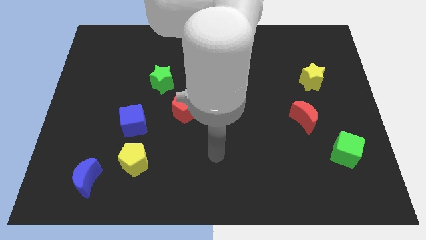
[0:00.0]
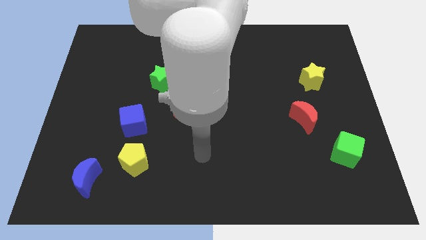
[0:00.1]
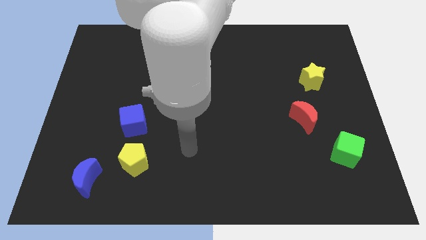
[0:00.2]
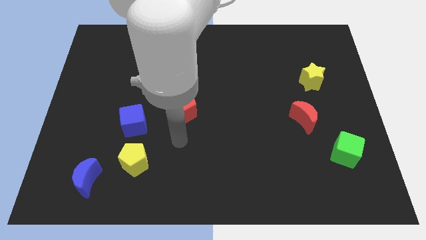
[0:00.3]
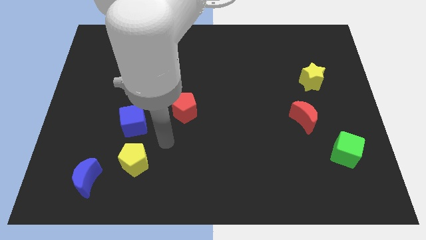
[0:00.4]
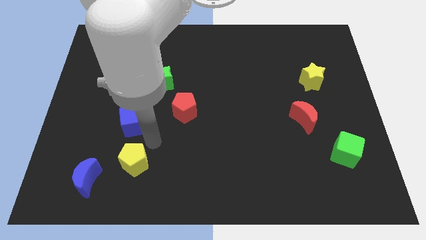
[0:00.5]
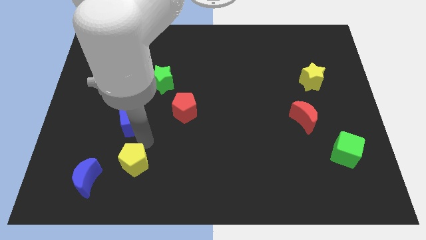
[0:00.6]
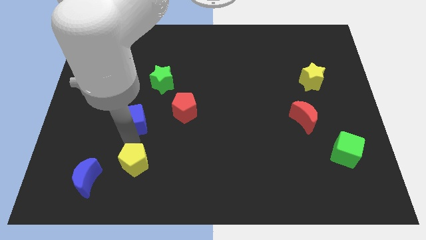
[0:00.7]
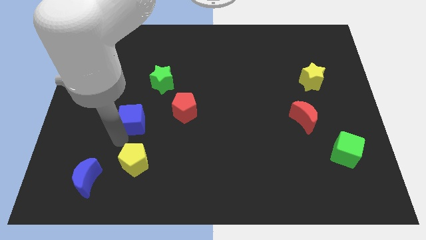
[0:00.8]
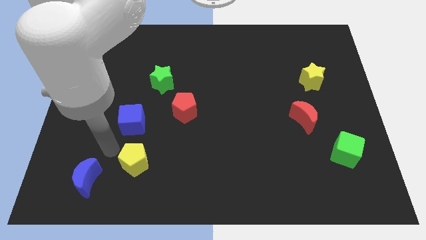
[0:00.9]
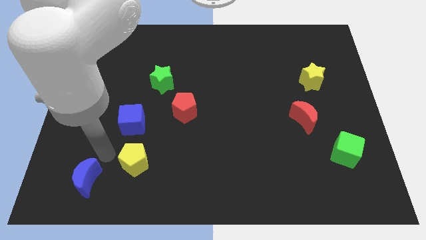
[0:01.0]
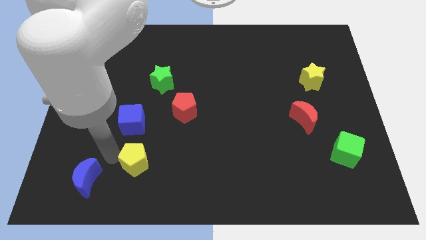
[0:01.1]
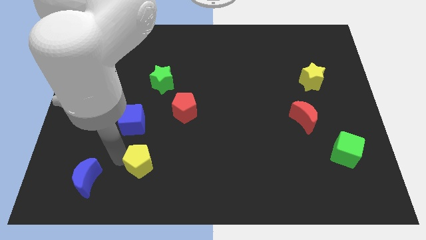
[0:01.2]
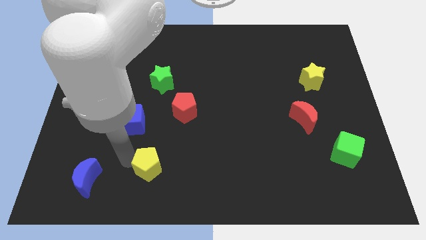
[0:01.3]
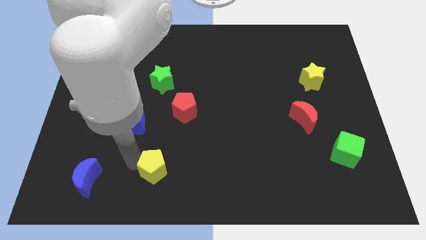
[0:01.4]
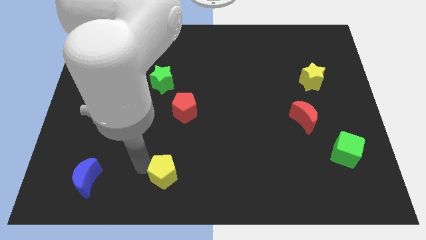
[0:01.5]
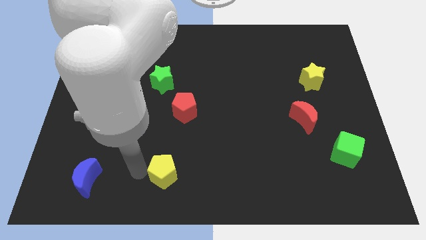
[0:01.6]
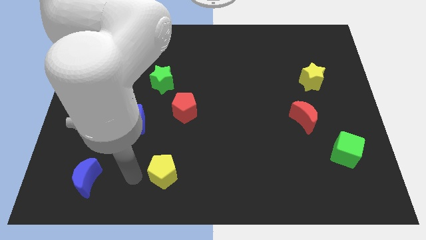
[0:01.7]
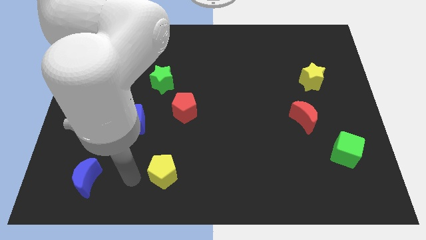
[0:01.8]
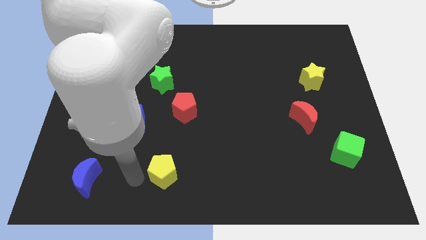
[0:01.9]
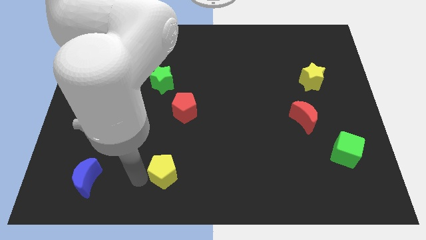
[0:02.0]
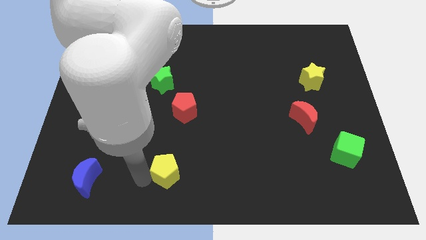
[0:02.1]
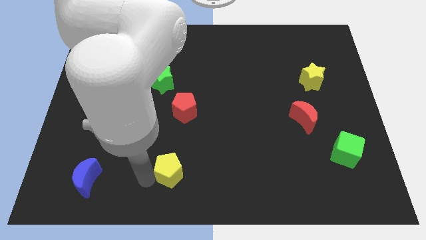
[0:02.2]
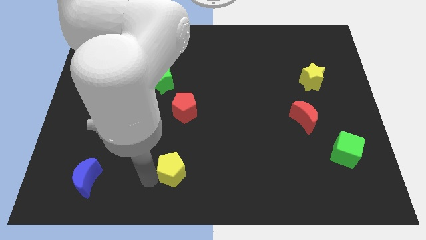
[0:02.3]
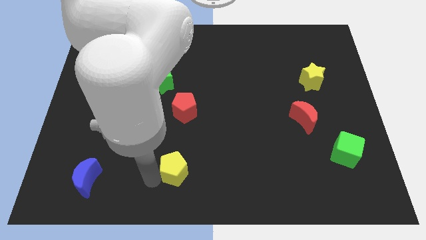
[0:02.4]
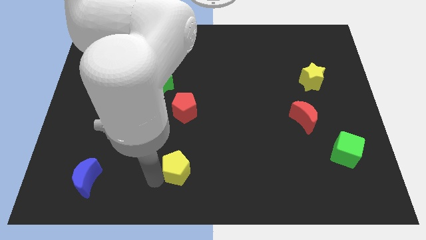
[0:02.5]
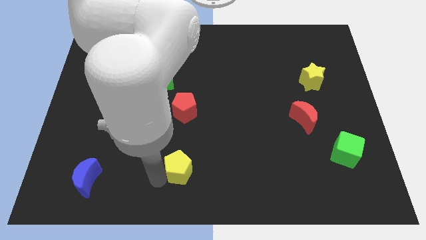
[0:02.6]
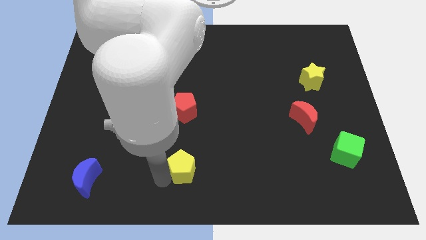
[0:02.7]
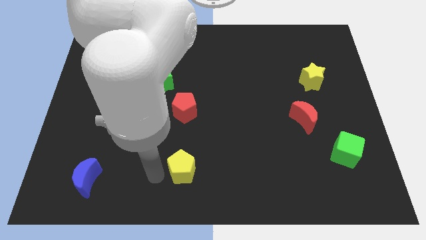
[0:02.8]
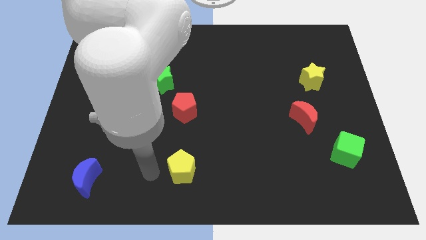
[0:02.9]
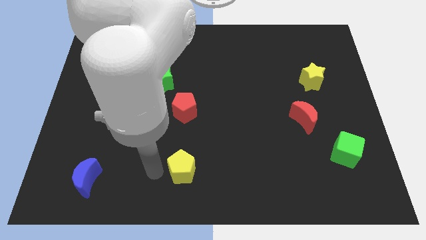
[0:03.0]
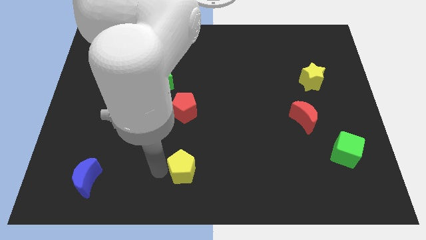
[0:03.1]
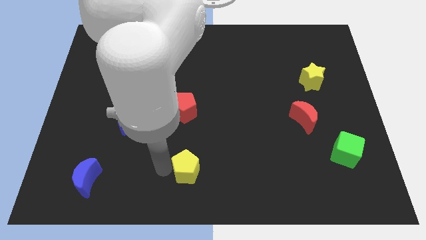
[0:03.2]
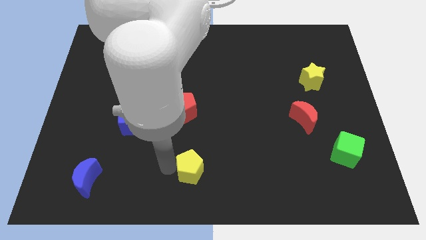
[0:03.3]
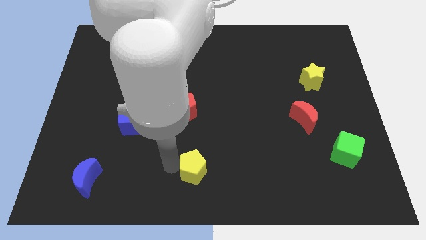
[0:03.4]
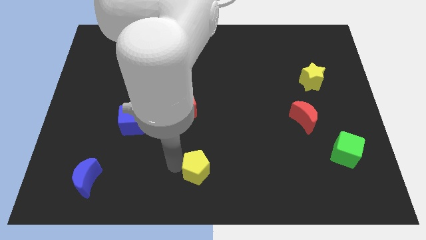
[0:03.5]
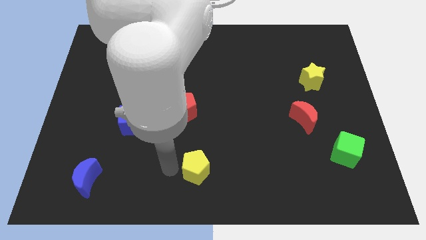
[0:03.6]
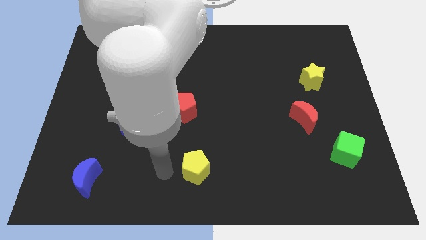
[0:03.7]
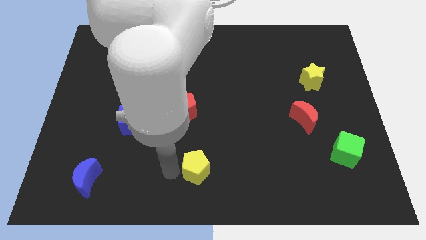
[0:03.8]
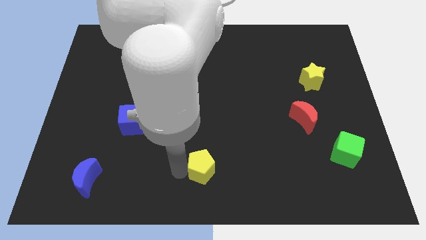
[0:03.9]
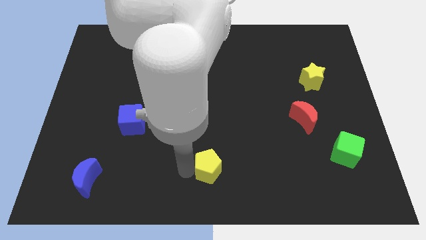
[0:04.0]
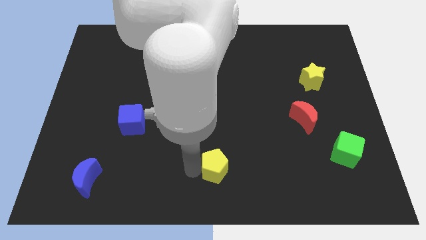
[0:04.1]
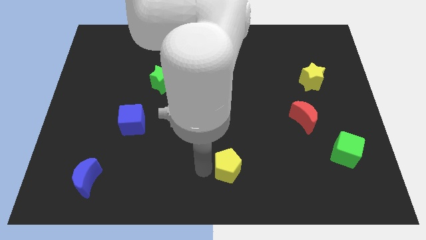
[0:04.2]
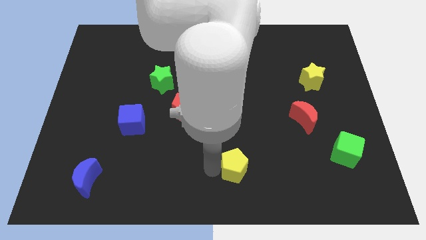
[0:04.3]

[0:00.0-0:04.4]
move the yellow pentagon to the right

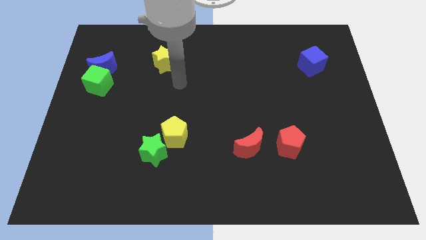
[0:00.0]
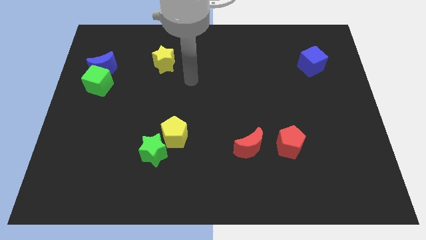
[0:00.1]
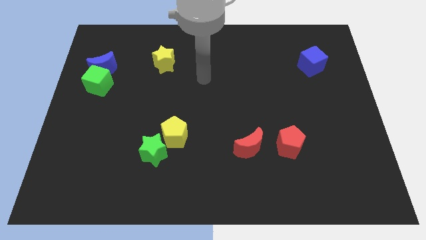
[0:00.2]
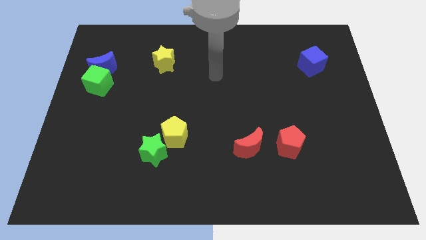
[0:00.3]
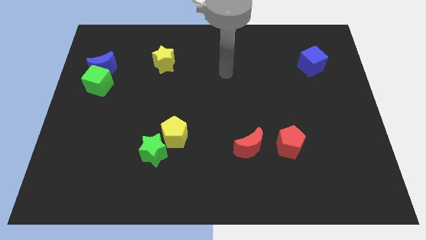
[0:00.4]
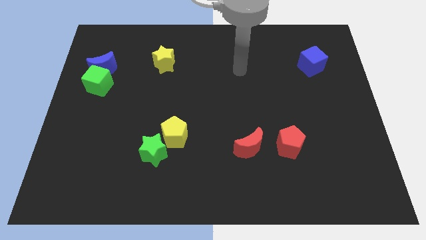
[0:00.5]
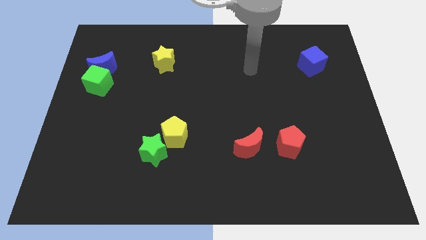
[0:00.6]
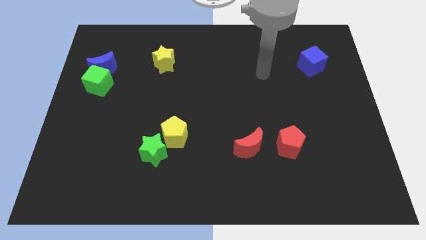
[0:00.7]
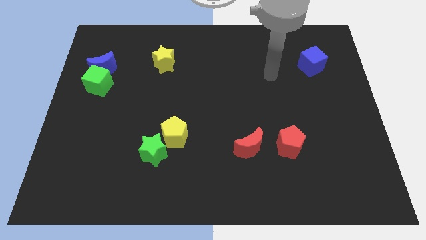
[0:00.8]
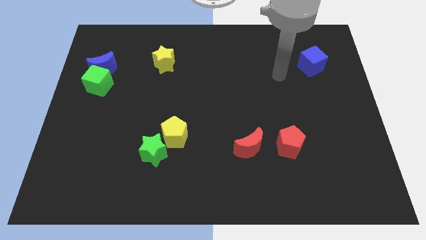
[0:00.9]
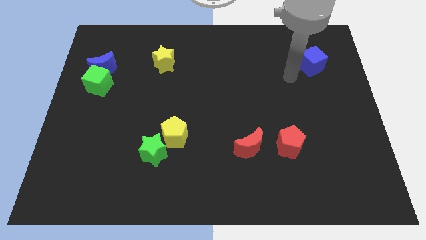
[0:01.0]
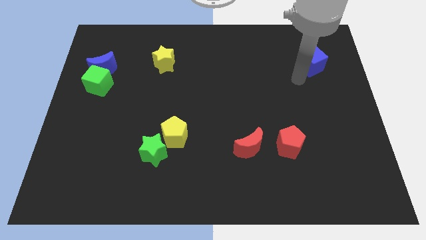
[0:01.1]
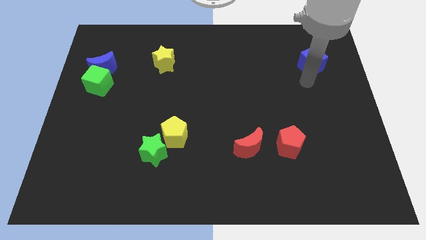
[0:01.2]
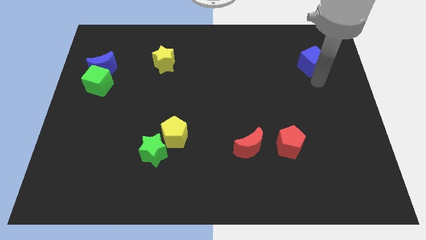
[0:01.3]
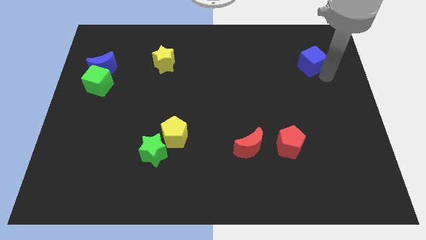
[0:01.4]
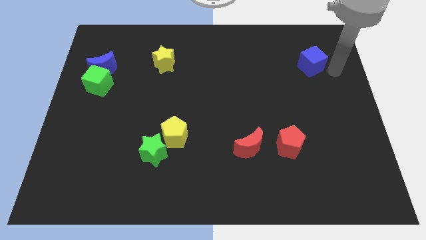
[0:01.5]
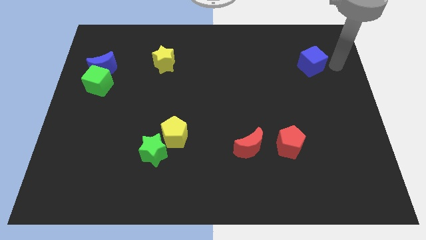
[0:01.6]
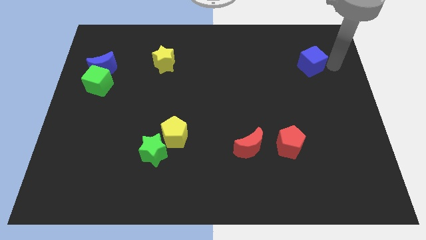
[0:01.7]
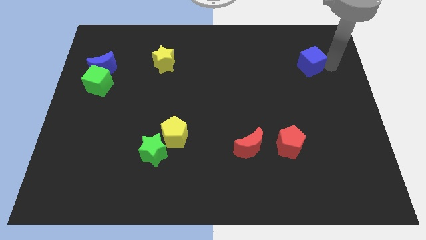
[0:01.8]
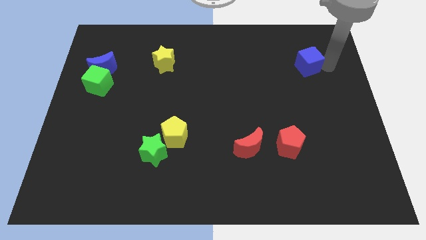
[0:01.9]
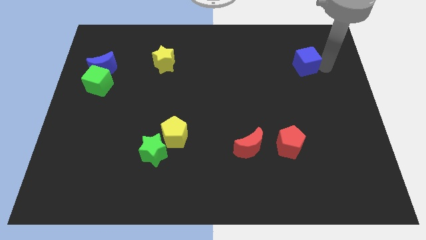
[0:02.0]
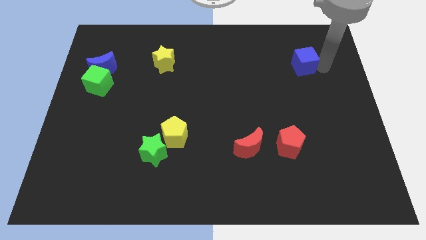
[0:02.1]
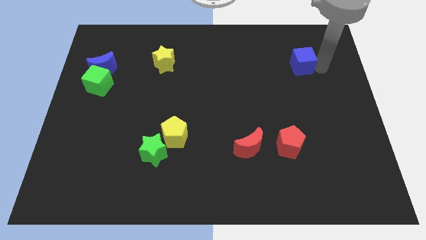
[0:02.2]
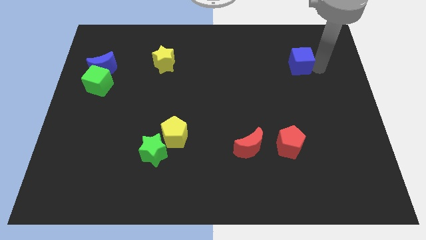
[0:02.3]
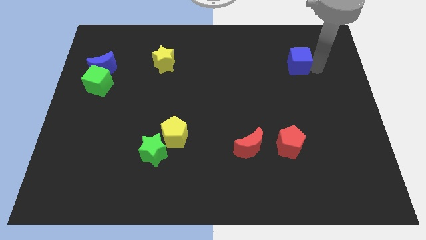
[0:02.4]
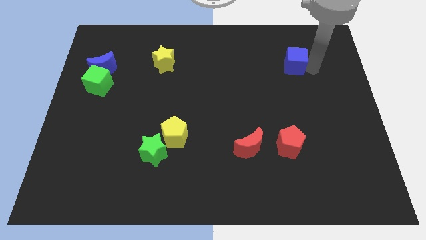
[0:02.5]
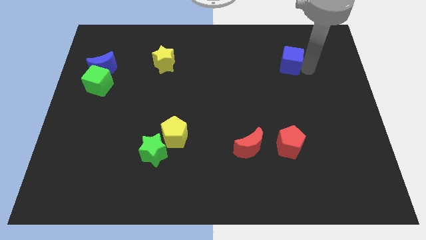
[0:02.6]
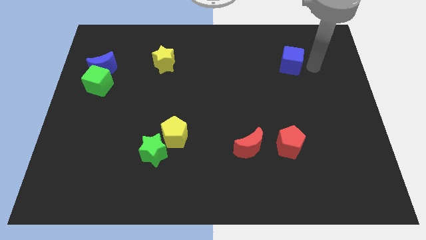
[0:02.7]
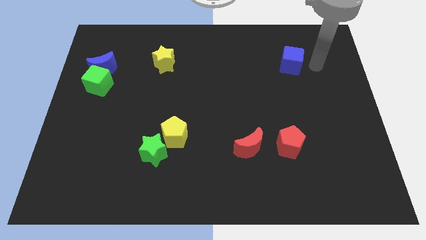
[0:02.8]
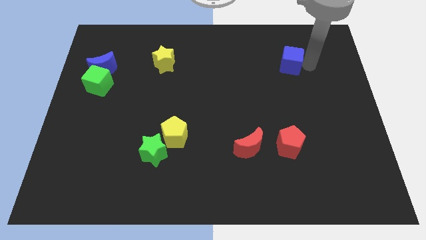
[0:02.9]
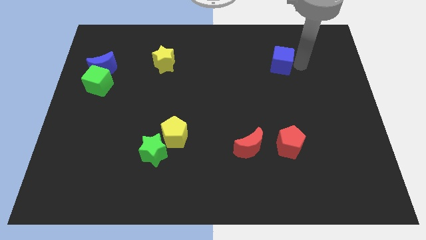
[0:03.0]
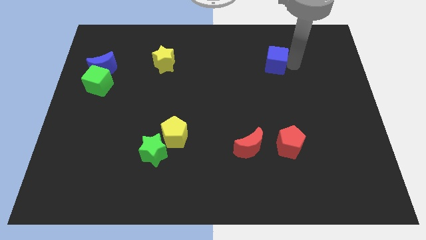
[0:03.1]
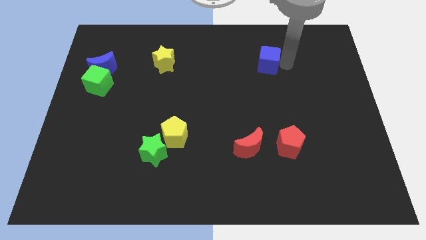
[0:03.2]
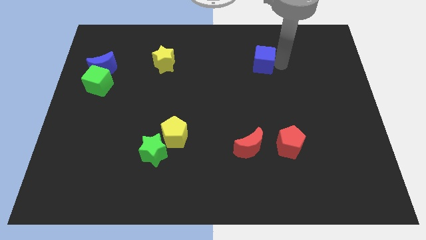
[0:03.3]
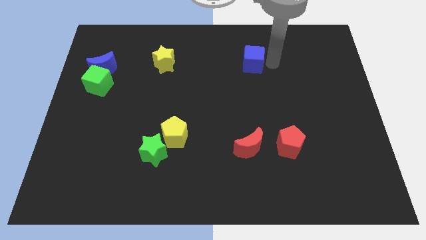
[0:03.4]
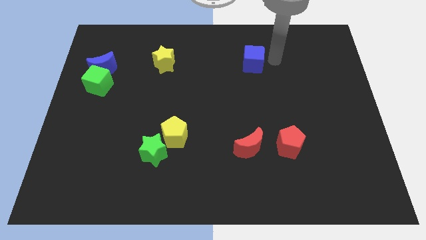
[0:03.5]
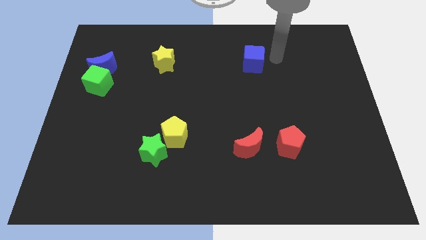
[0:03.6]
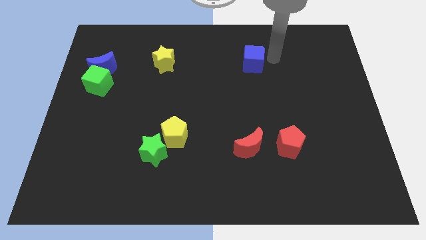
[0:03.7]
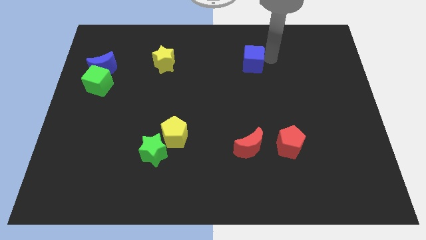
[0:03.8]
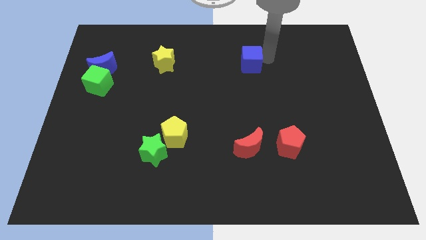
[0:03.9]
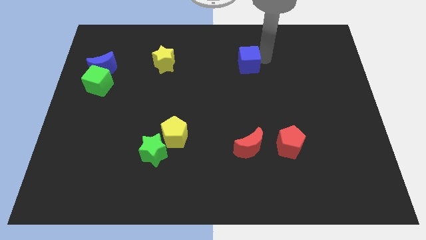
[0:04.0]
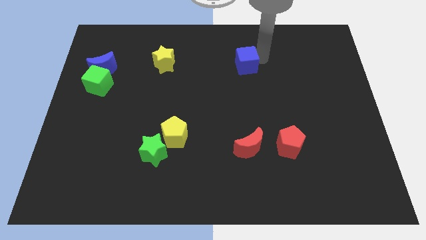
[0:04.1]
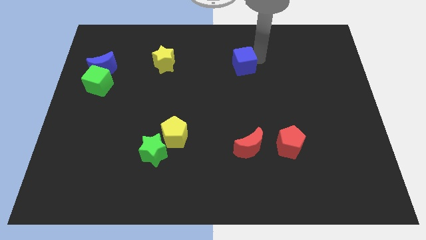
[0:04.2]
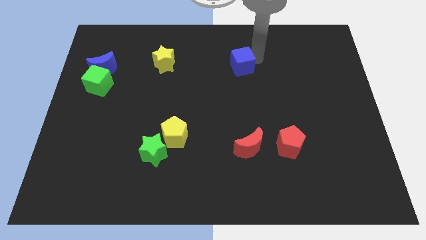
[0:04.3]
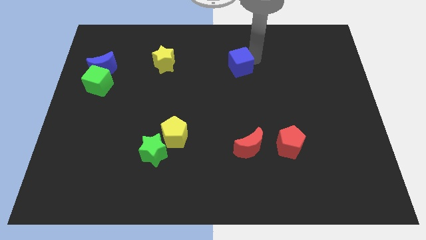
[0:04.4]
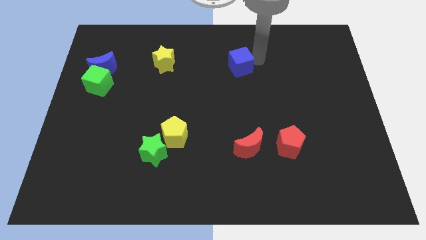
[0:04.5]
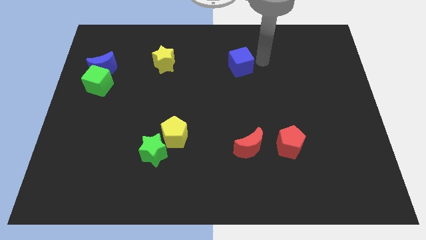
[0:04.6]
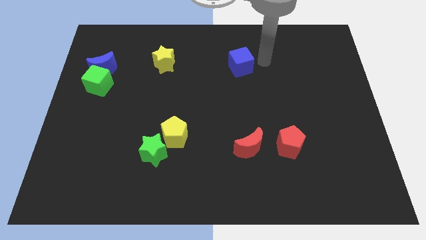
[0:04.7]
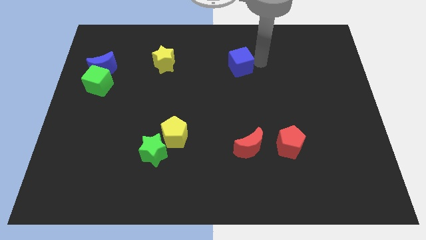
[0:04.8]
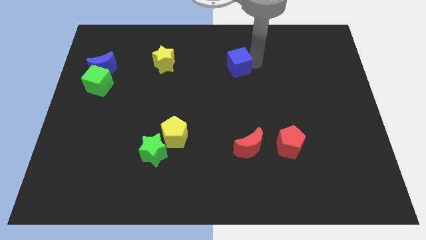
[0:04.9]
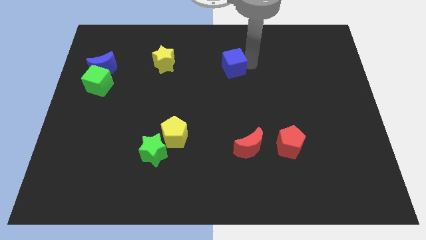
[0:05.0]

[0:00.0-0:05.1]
move the blue cube left
